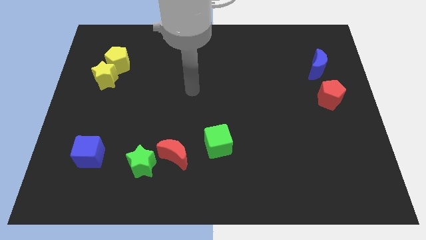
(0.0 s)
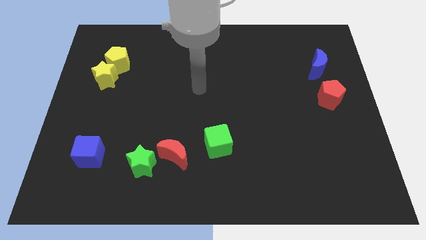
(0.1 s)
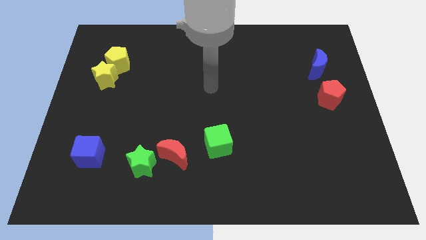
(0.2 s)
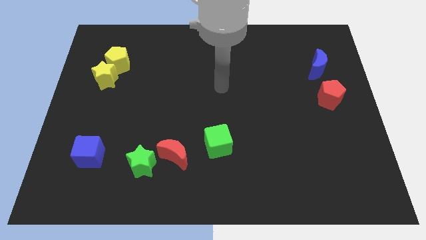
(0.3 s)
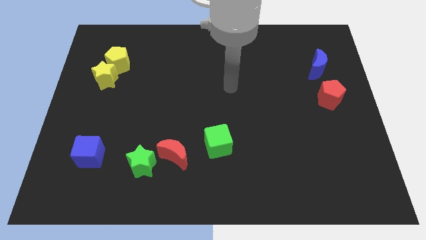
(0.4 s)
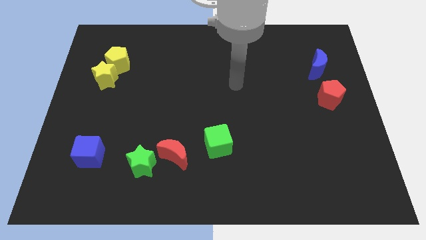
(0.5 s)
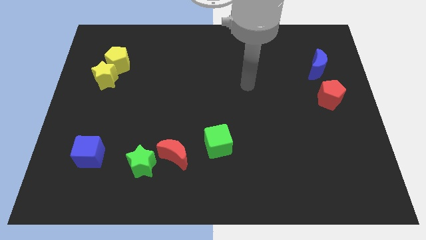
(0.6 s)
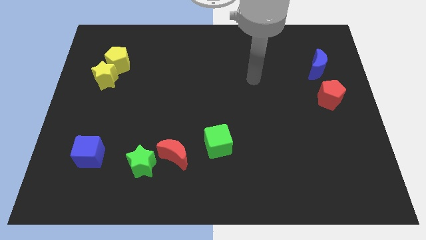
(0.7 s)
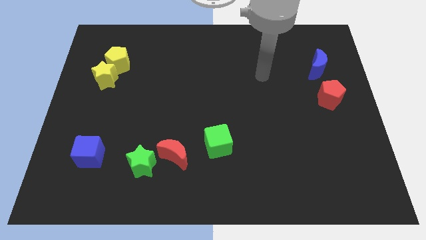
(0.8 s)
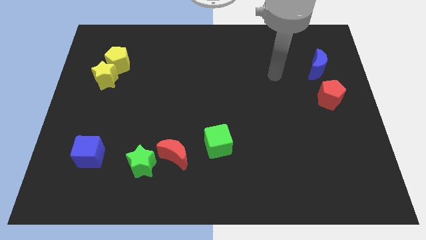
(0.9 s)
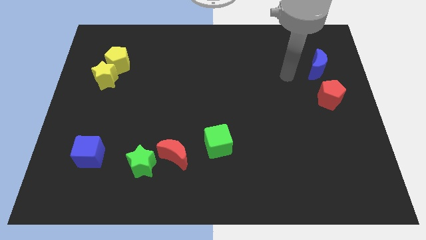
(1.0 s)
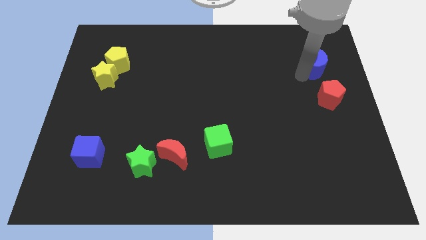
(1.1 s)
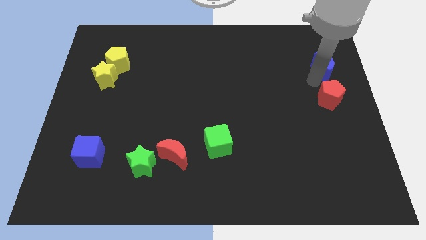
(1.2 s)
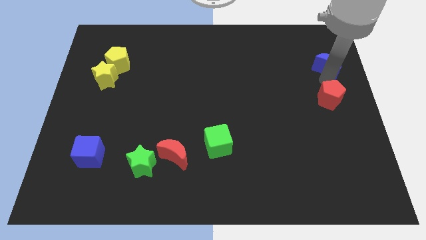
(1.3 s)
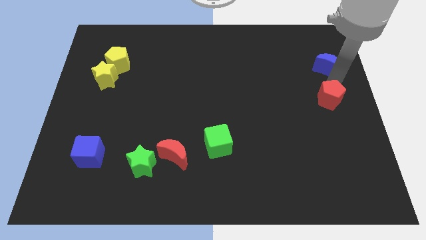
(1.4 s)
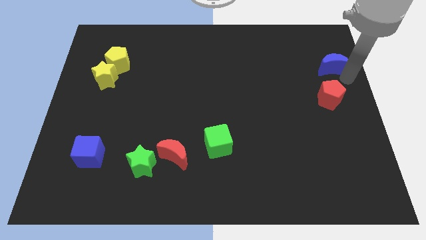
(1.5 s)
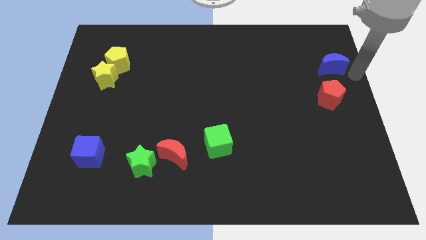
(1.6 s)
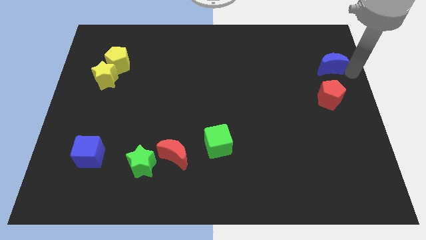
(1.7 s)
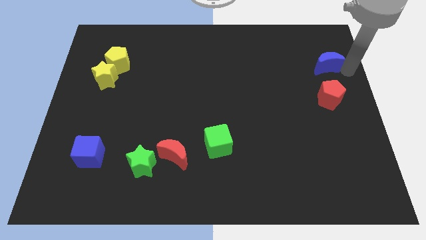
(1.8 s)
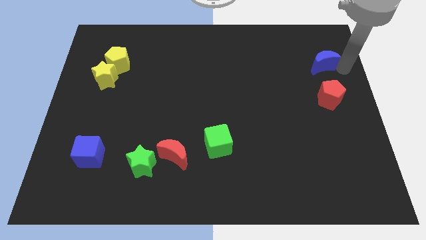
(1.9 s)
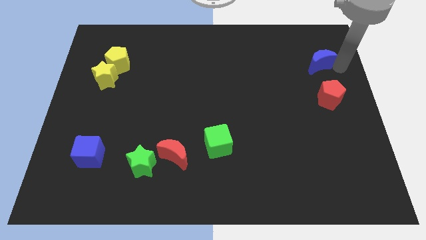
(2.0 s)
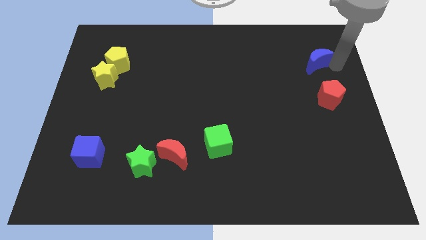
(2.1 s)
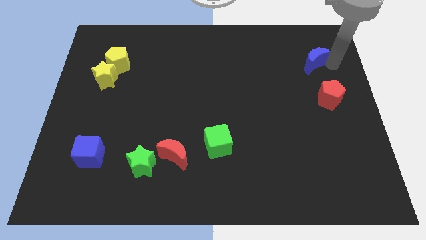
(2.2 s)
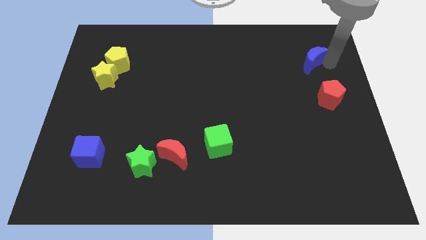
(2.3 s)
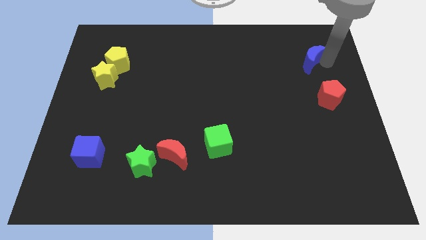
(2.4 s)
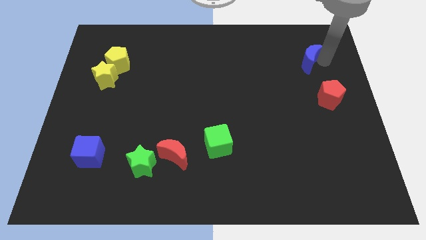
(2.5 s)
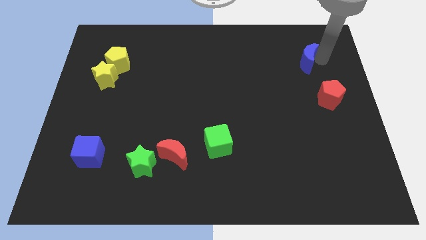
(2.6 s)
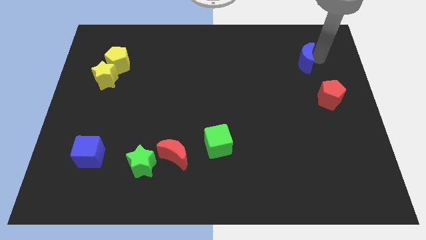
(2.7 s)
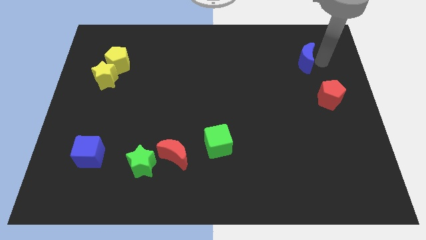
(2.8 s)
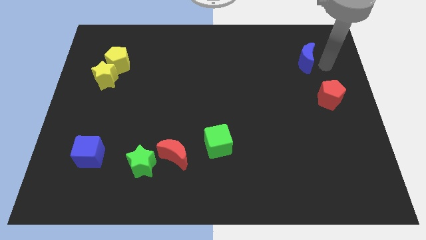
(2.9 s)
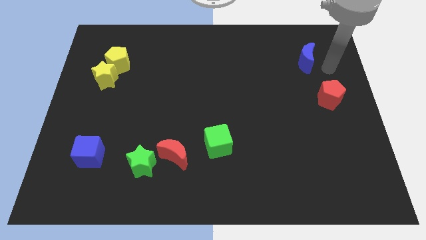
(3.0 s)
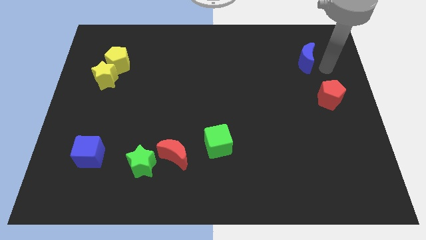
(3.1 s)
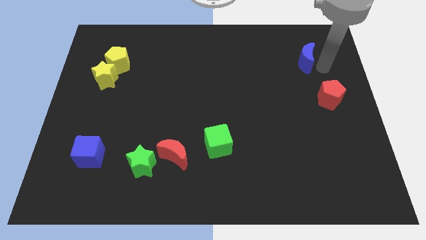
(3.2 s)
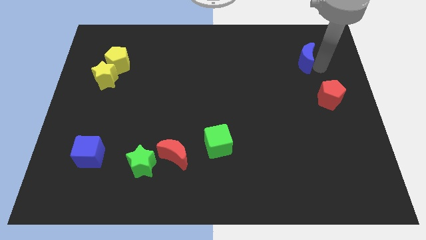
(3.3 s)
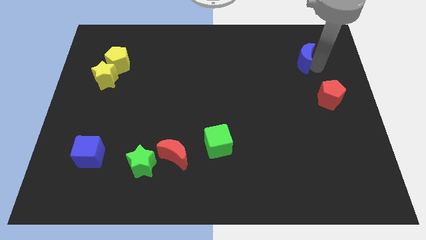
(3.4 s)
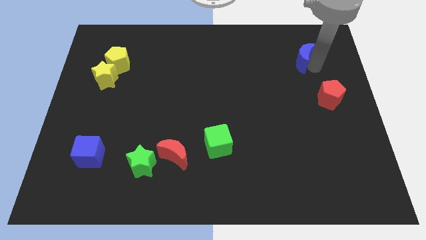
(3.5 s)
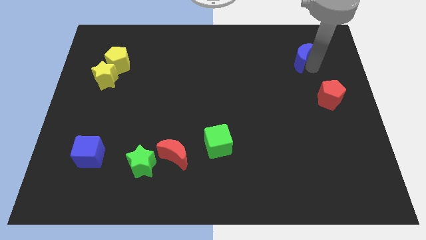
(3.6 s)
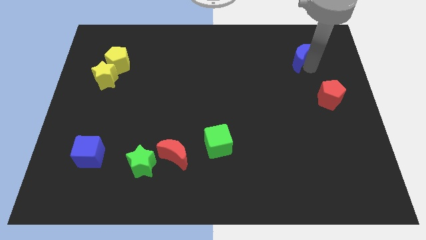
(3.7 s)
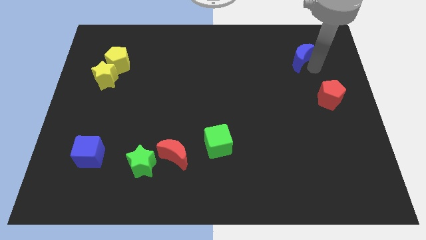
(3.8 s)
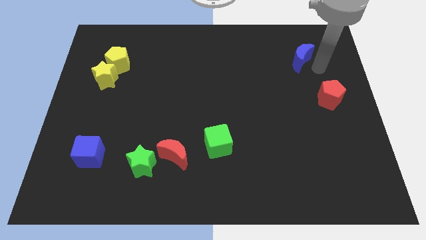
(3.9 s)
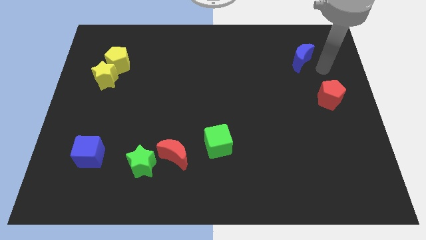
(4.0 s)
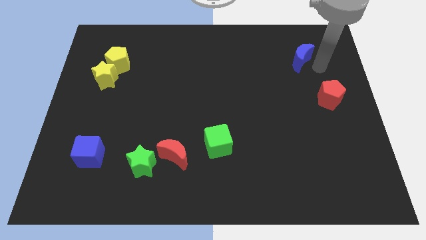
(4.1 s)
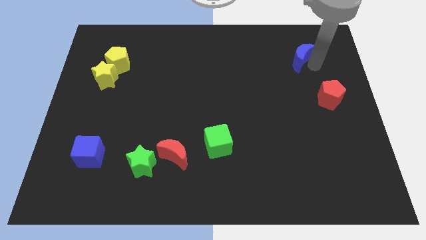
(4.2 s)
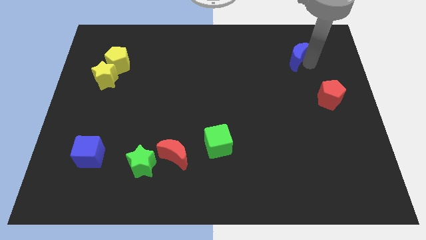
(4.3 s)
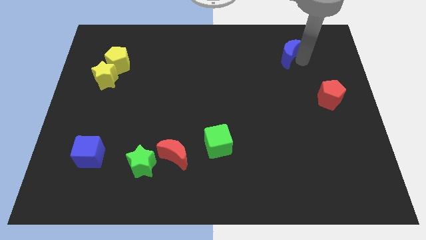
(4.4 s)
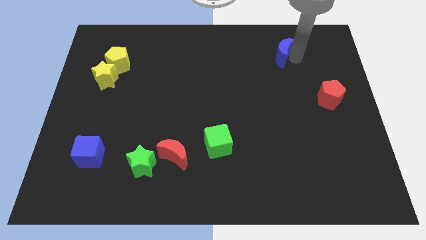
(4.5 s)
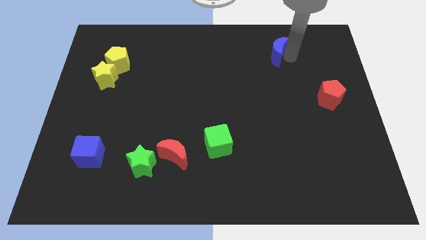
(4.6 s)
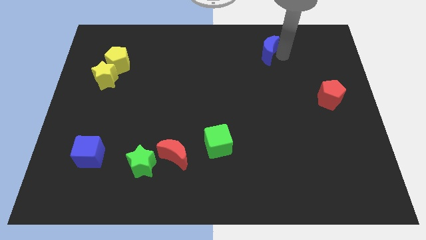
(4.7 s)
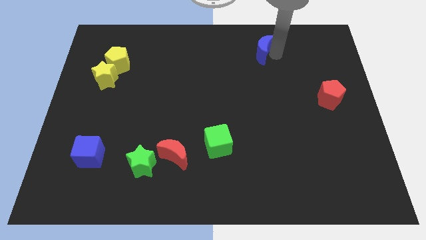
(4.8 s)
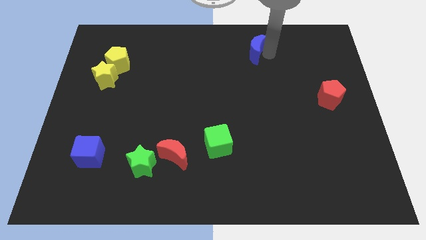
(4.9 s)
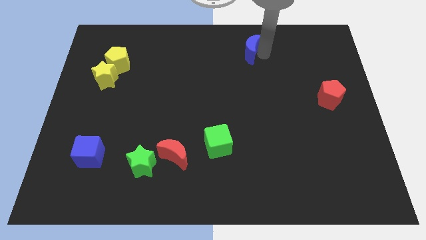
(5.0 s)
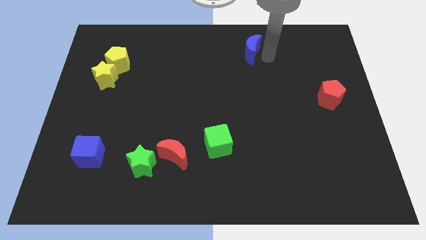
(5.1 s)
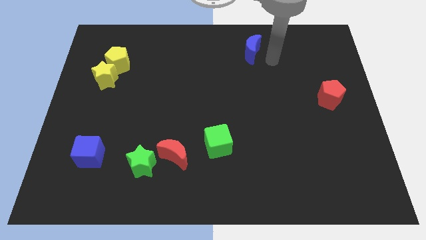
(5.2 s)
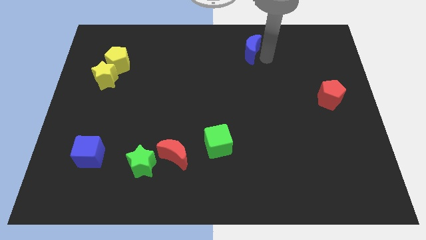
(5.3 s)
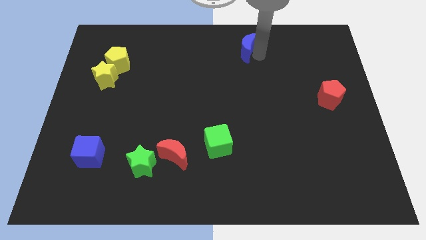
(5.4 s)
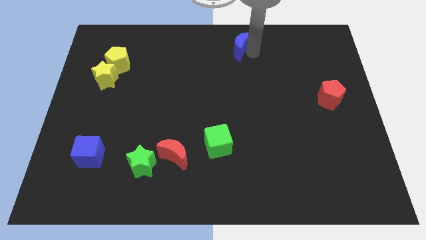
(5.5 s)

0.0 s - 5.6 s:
slide the blue moon to the towards your base
